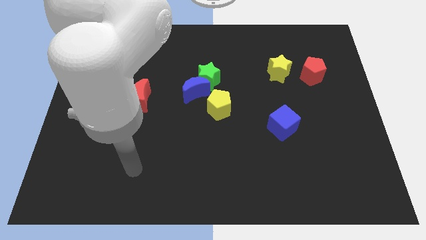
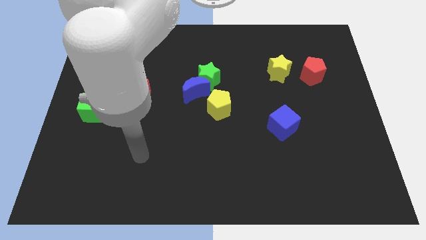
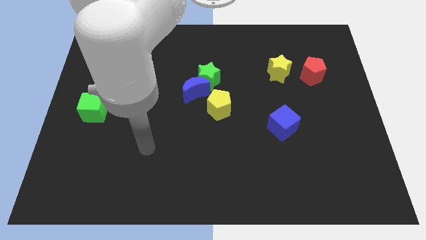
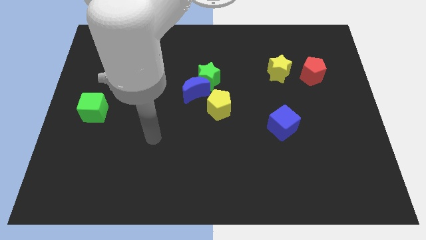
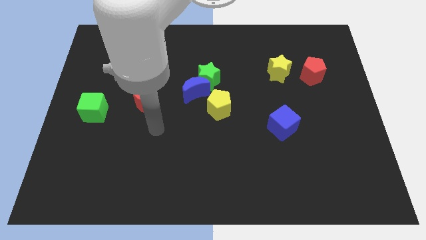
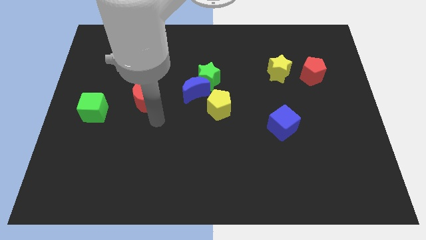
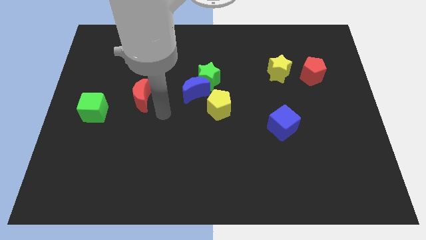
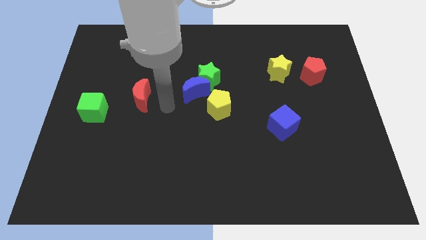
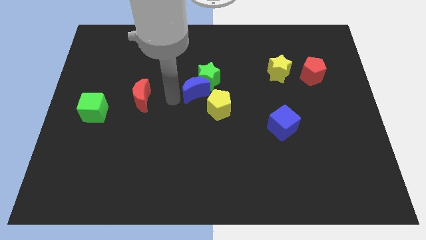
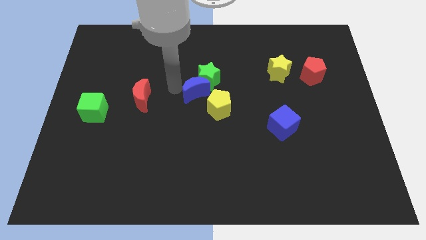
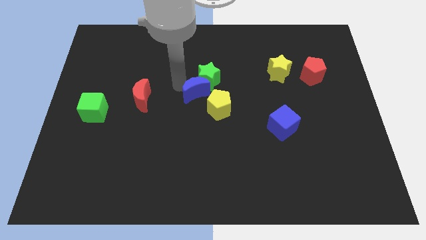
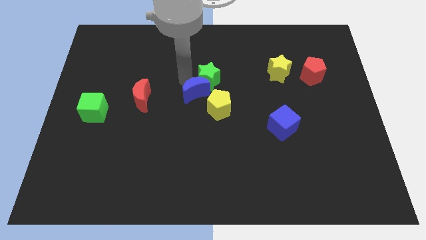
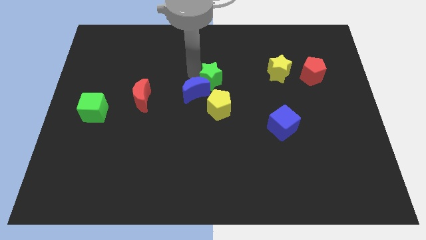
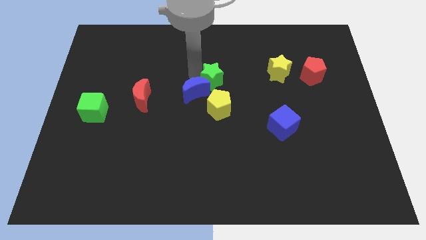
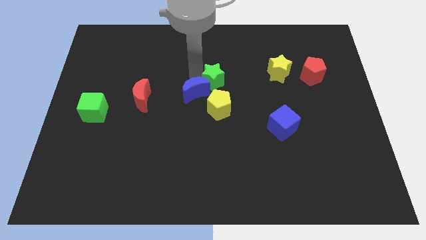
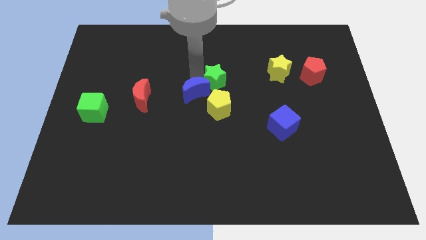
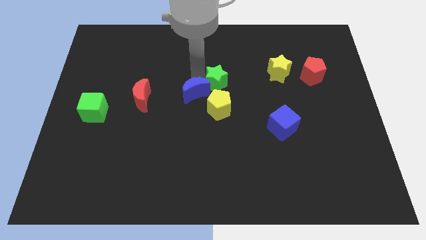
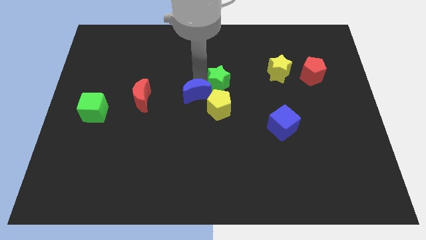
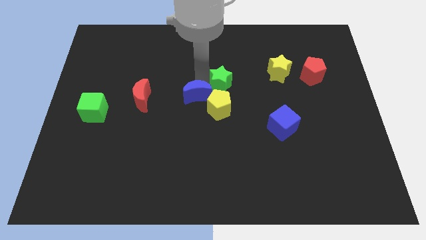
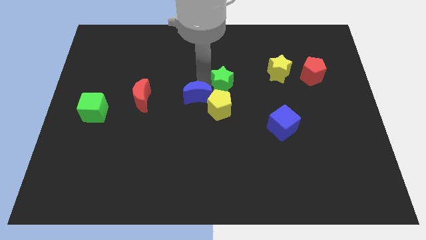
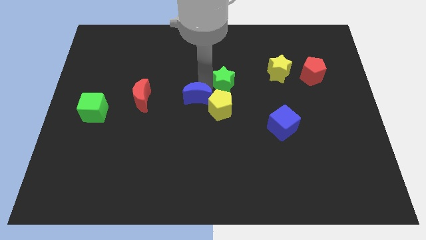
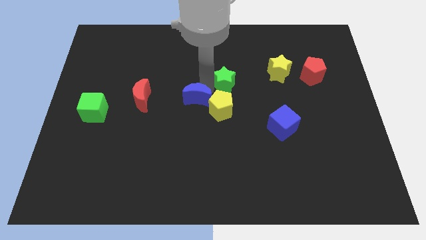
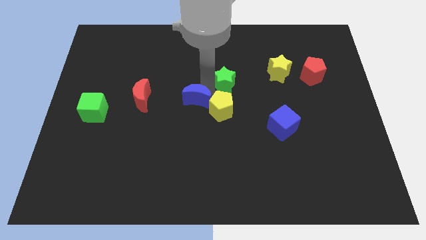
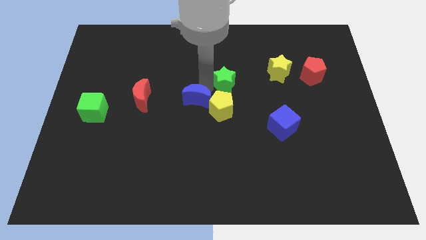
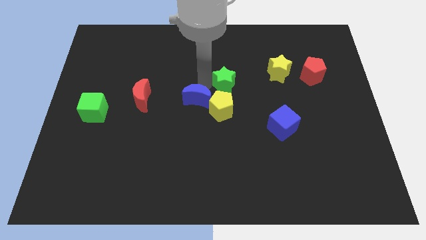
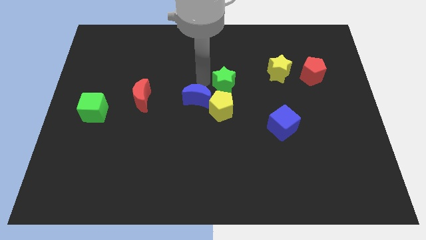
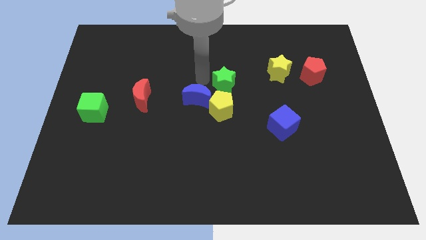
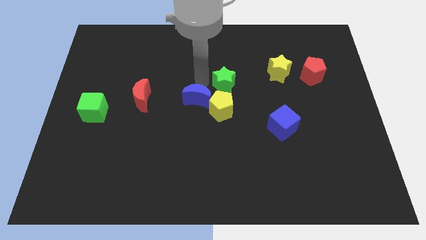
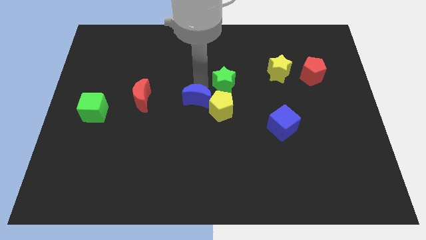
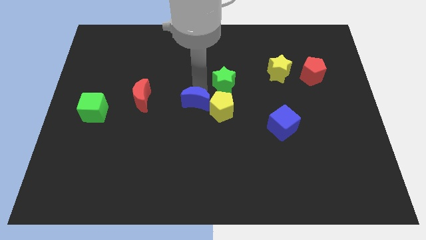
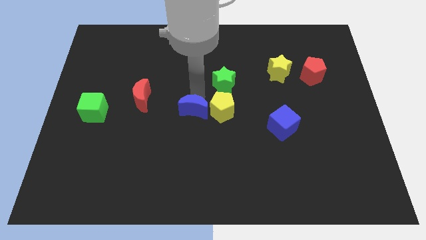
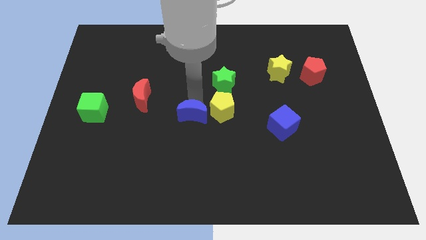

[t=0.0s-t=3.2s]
slightly move the blue moon down

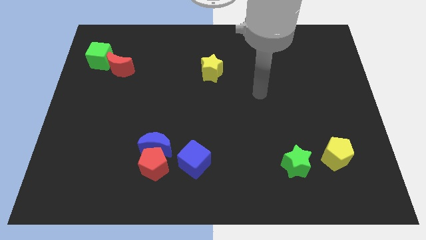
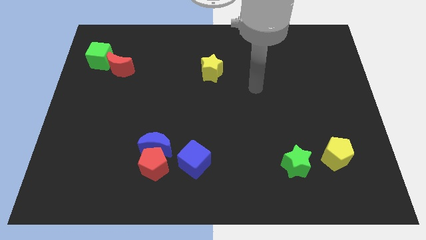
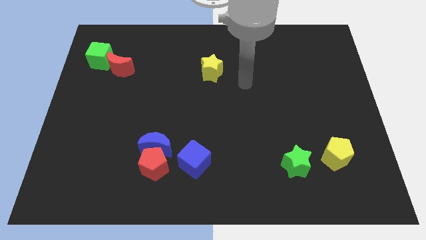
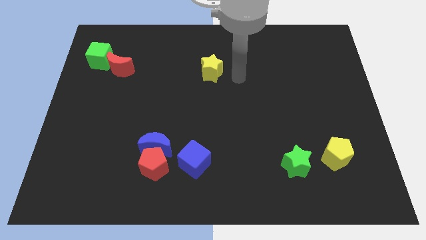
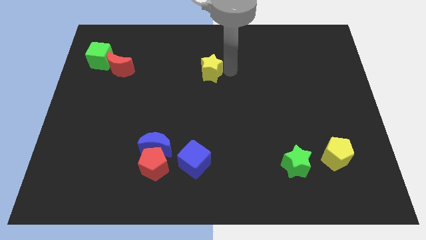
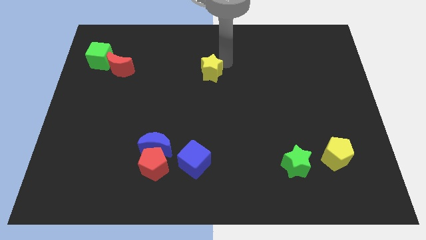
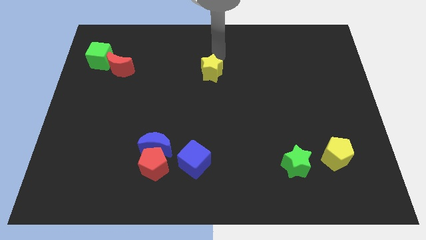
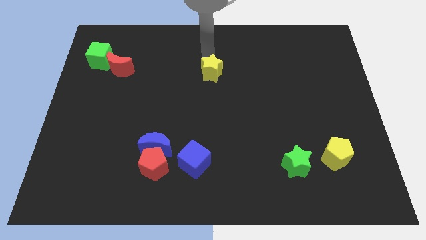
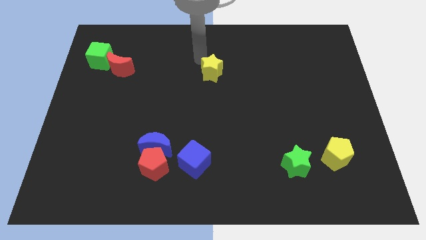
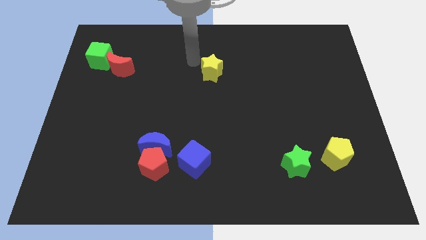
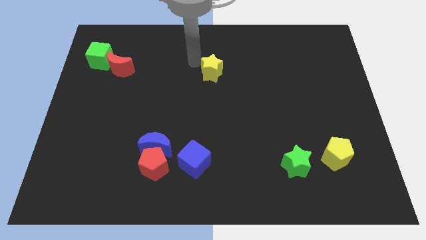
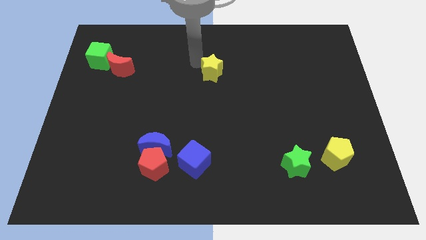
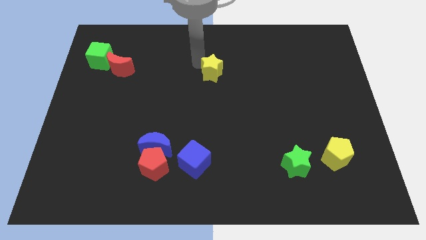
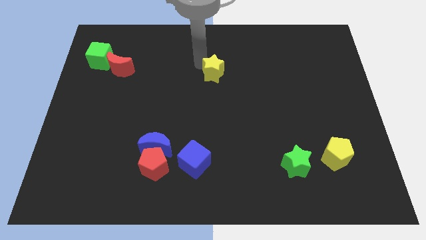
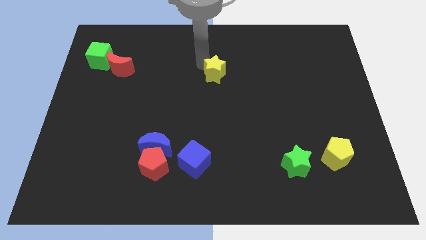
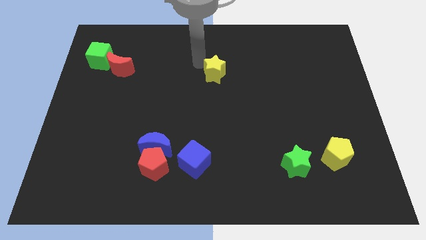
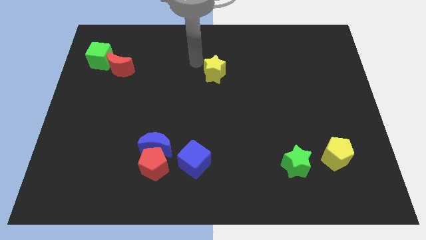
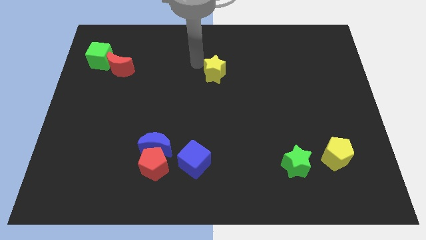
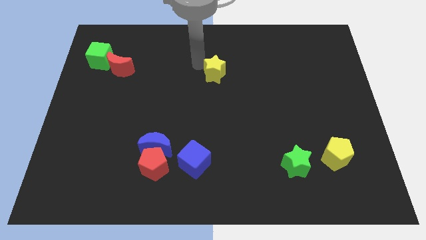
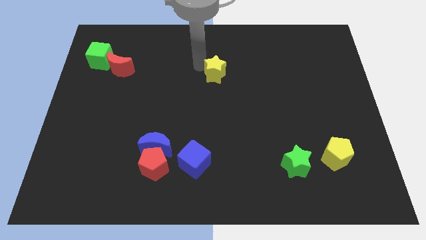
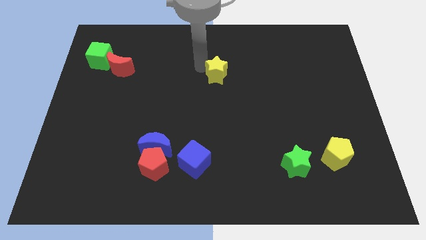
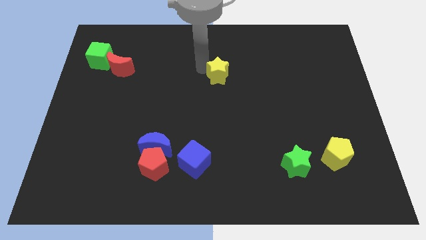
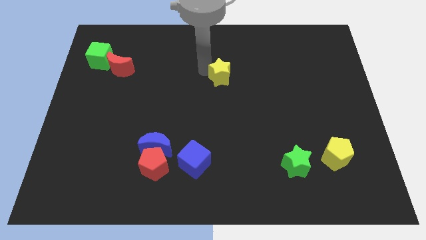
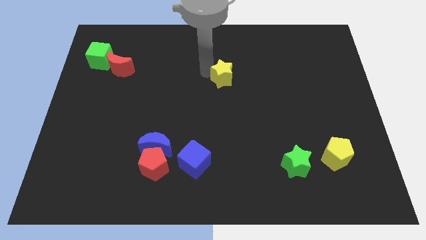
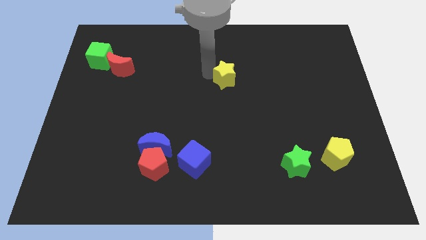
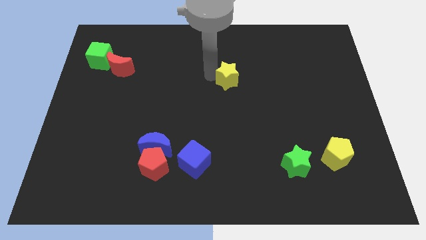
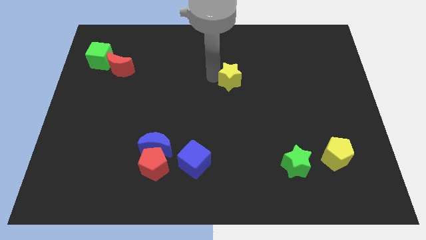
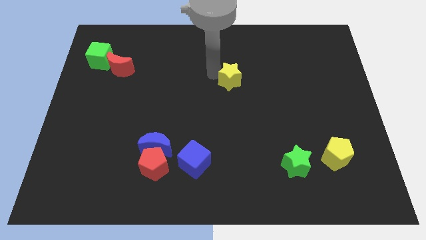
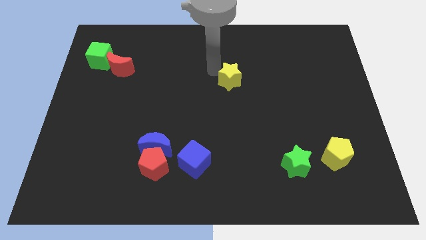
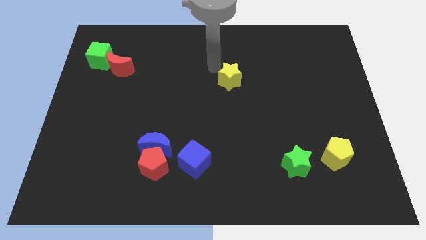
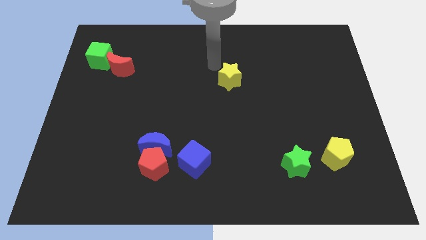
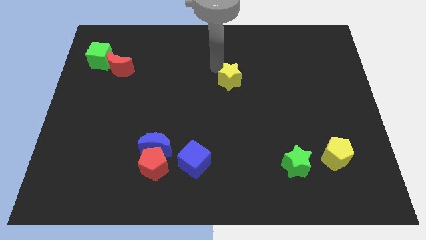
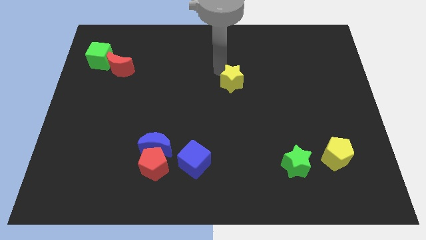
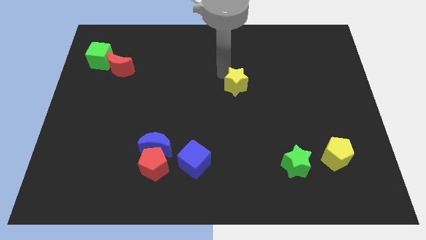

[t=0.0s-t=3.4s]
slightly slide the yellow star diagonally down and to the right

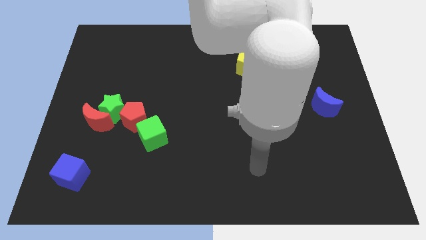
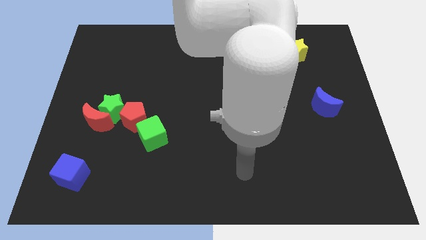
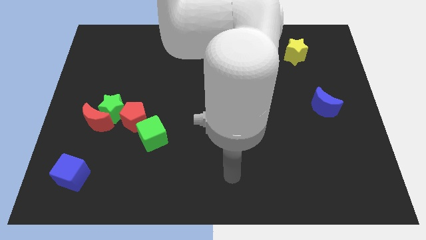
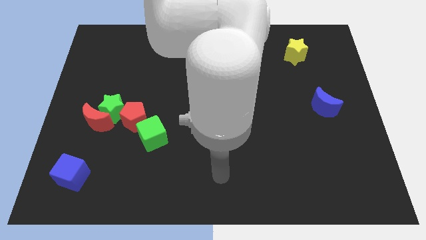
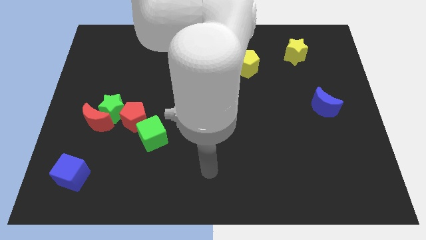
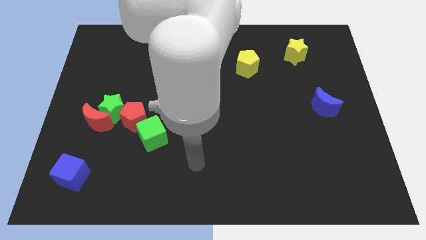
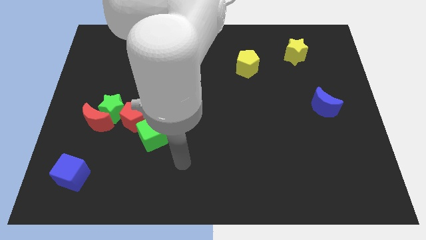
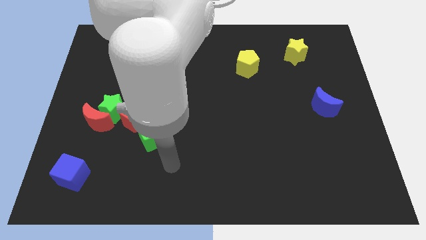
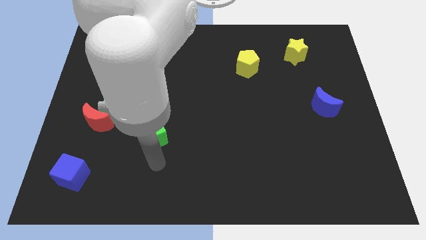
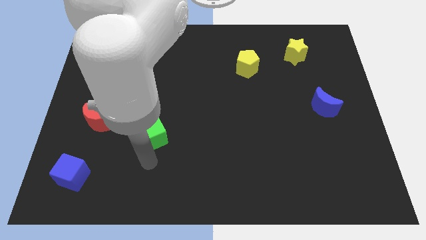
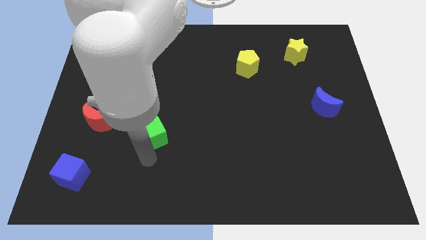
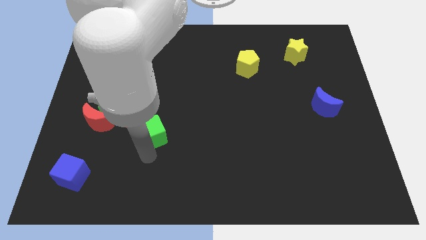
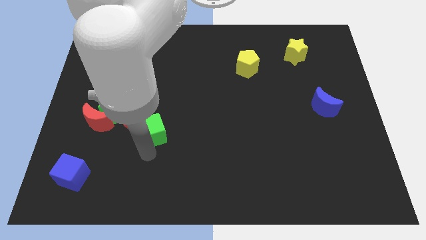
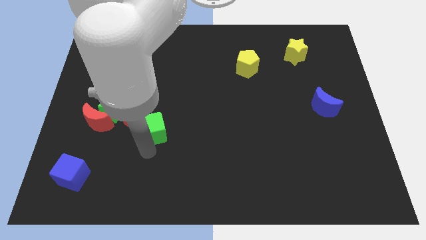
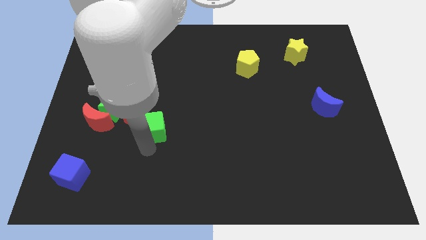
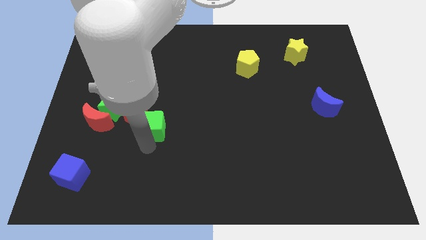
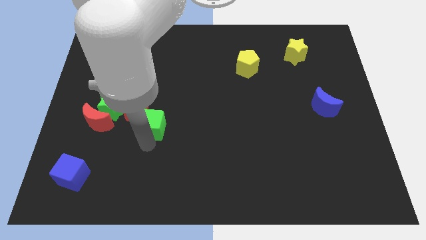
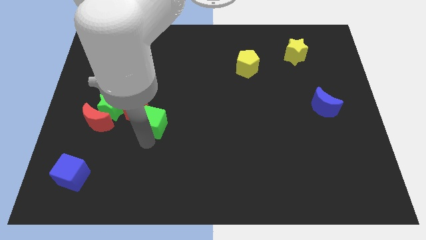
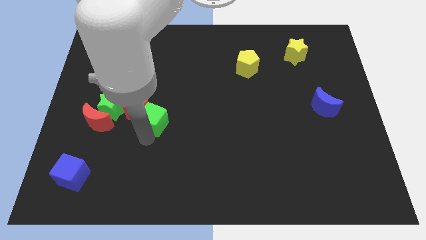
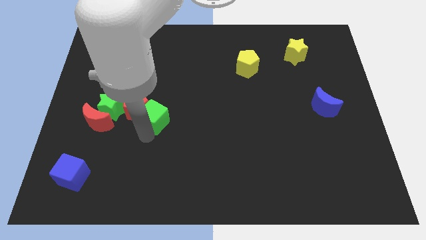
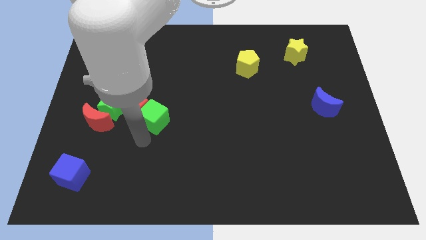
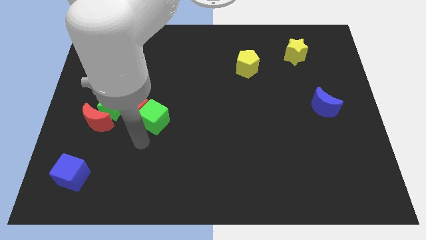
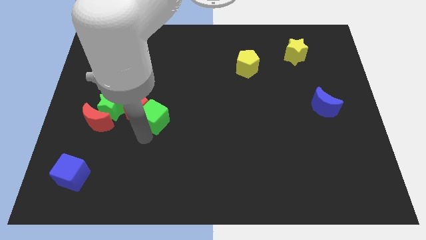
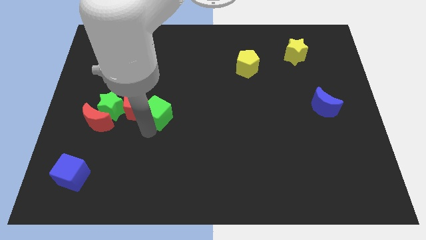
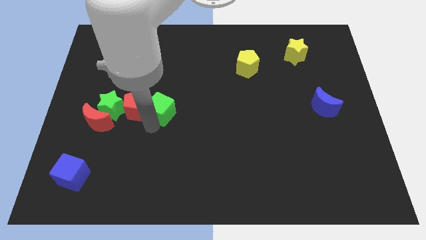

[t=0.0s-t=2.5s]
slightly move the green cube up
